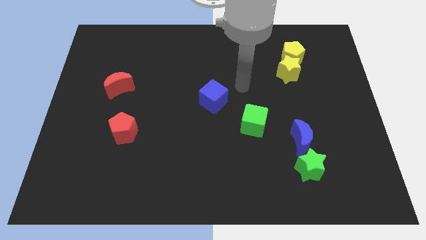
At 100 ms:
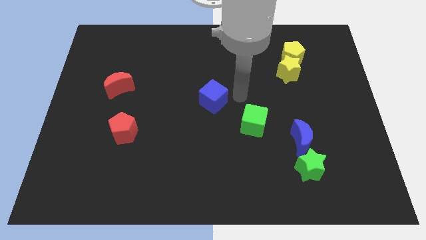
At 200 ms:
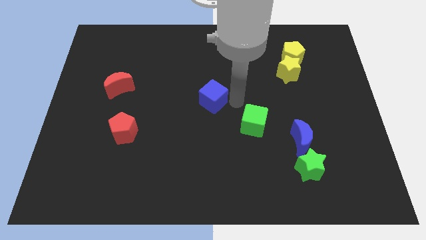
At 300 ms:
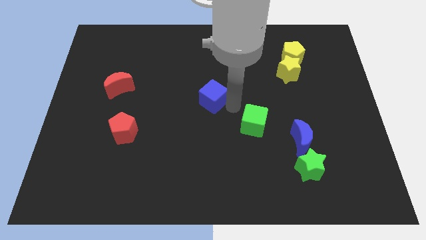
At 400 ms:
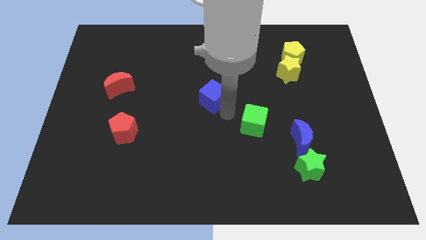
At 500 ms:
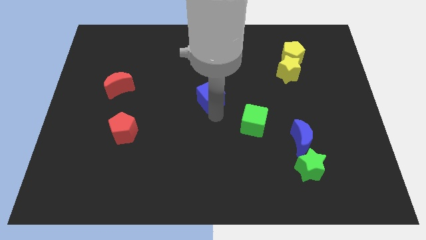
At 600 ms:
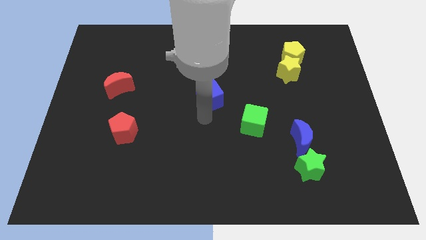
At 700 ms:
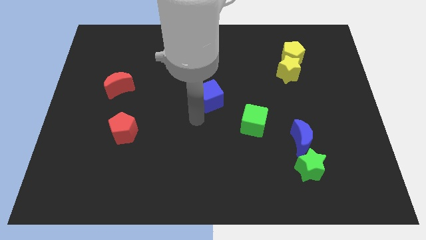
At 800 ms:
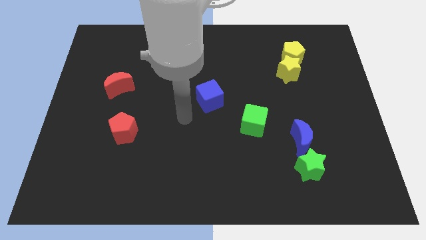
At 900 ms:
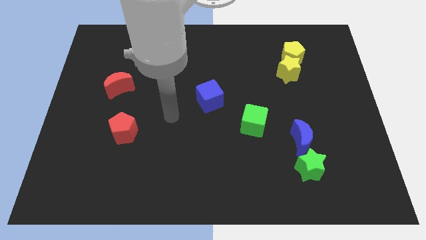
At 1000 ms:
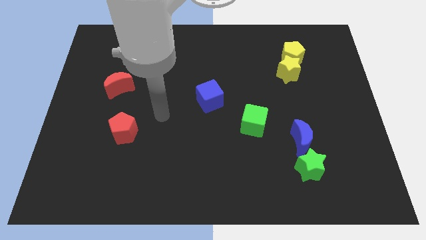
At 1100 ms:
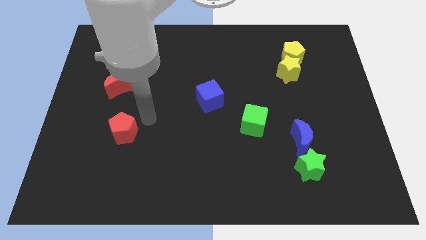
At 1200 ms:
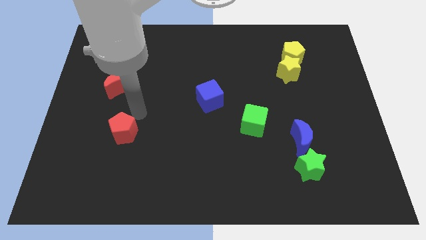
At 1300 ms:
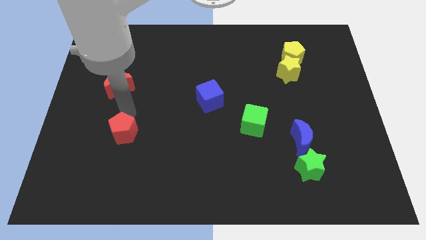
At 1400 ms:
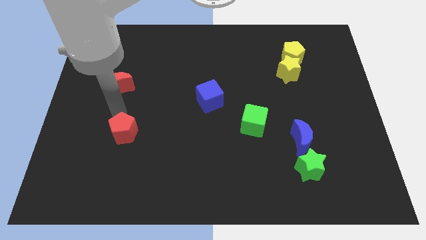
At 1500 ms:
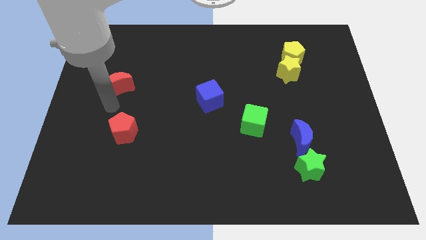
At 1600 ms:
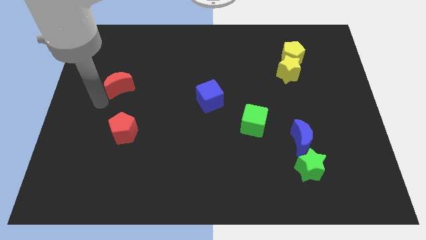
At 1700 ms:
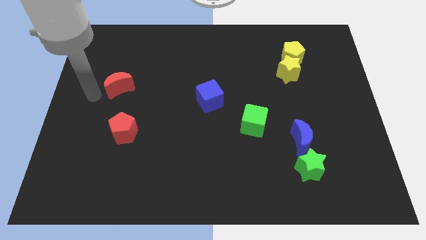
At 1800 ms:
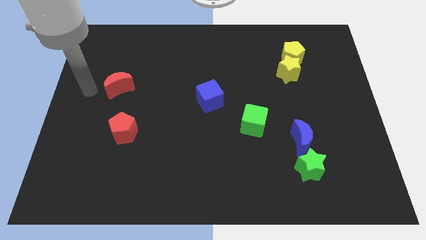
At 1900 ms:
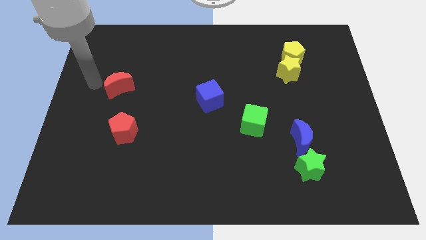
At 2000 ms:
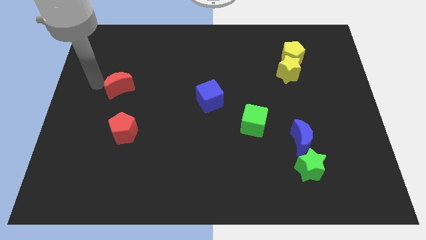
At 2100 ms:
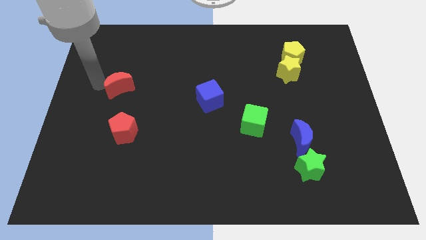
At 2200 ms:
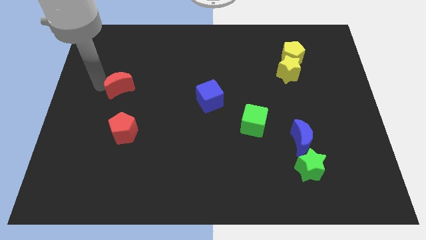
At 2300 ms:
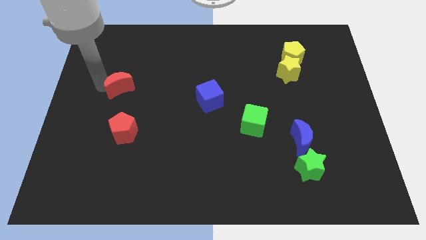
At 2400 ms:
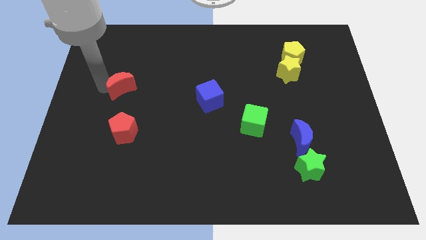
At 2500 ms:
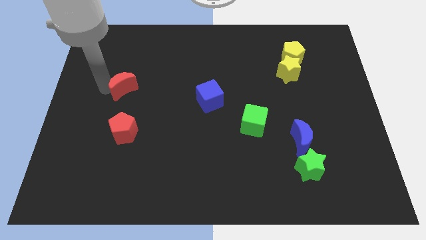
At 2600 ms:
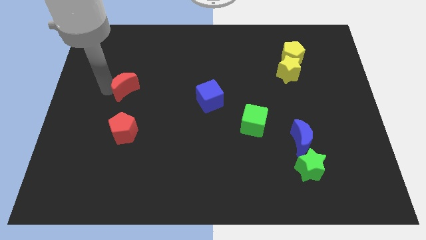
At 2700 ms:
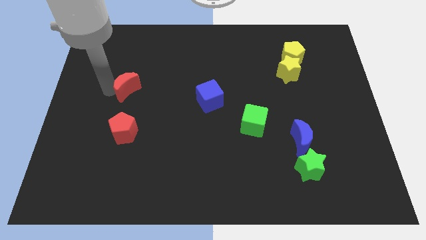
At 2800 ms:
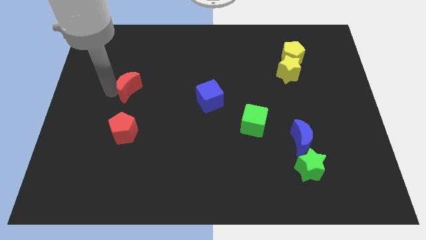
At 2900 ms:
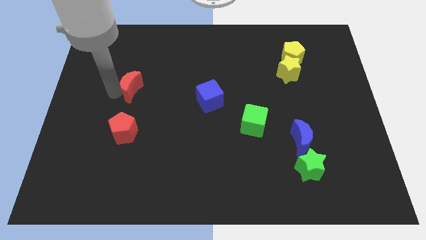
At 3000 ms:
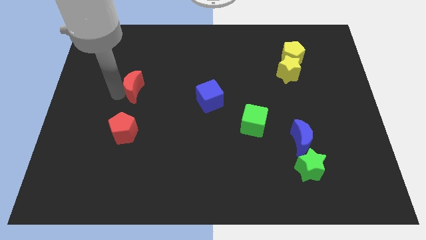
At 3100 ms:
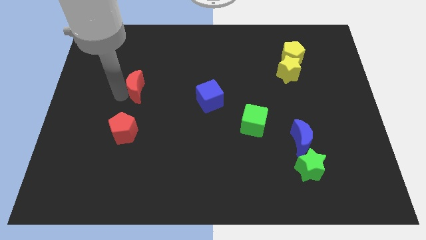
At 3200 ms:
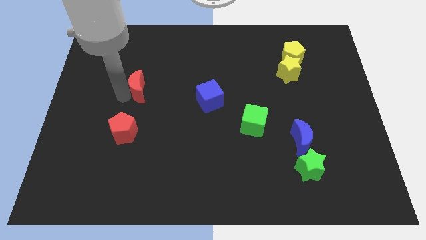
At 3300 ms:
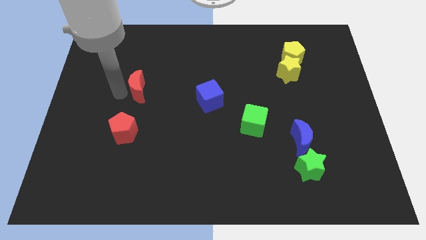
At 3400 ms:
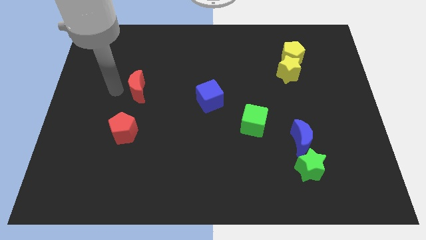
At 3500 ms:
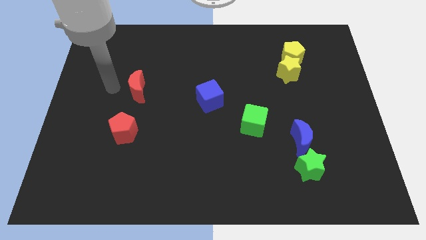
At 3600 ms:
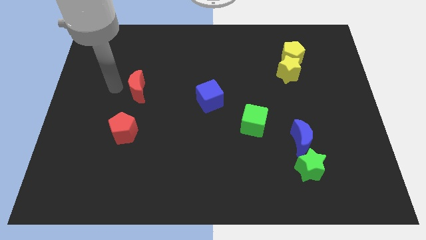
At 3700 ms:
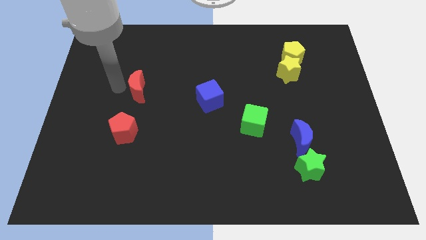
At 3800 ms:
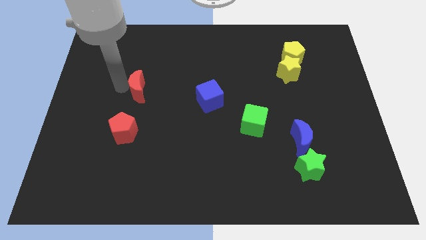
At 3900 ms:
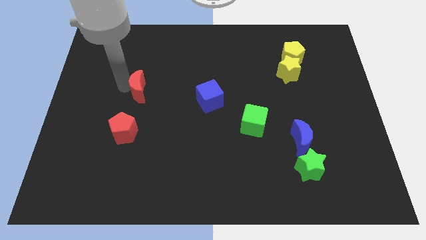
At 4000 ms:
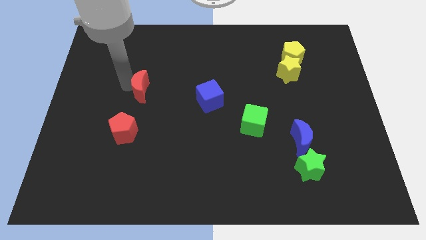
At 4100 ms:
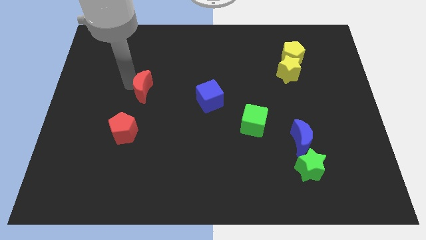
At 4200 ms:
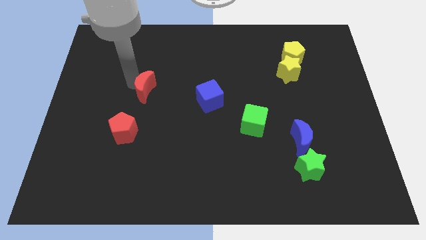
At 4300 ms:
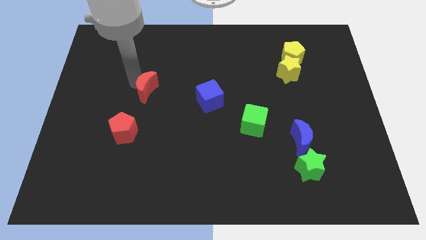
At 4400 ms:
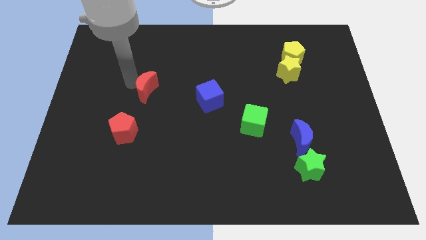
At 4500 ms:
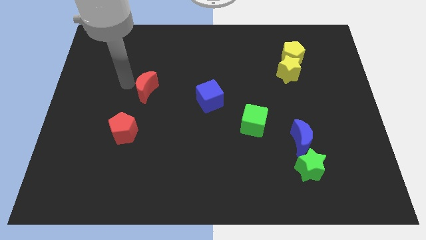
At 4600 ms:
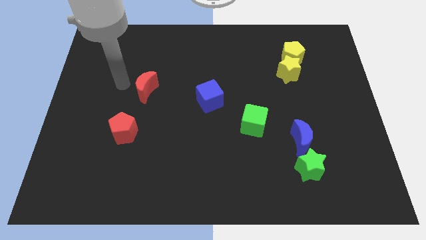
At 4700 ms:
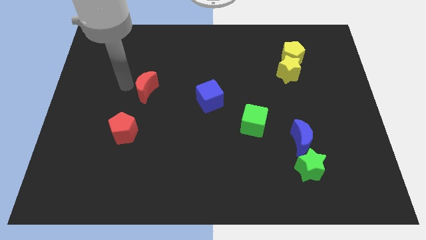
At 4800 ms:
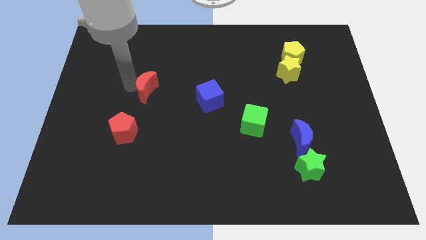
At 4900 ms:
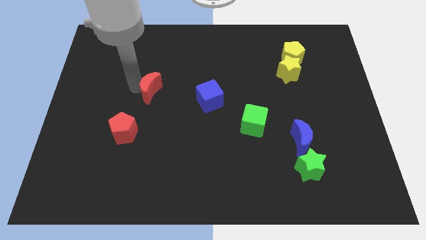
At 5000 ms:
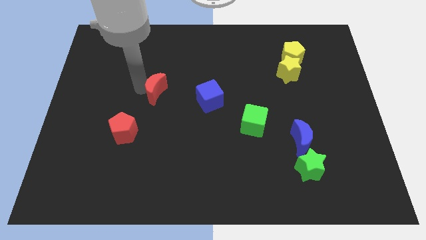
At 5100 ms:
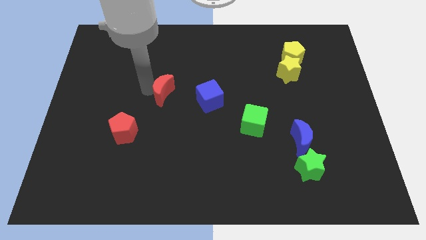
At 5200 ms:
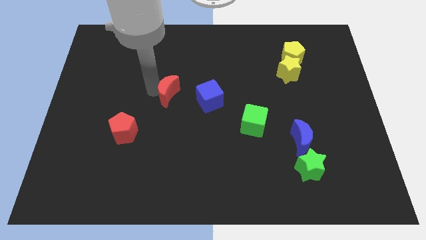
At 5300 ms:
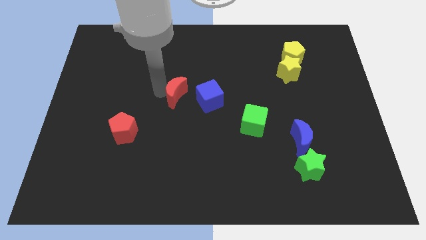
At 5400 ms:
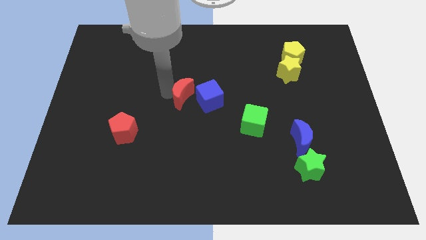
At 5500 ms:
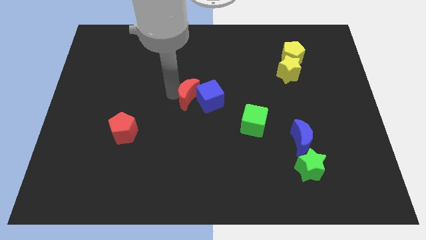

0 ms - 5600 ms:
put the red moon close to the blue cube

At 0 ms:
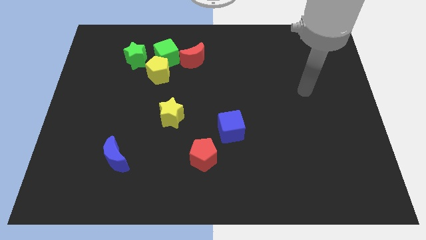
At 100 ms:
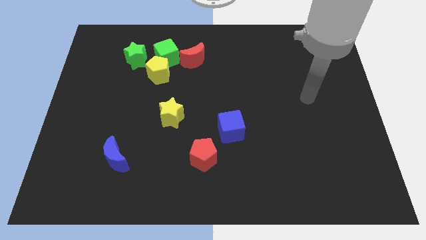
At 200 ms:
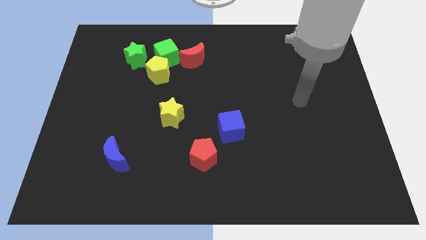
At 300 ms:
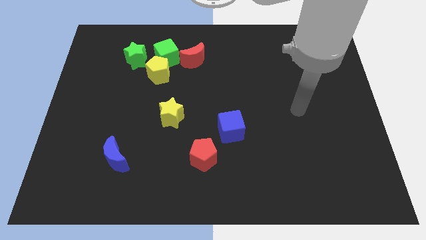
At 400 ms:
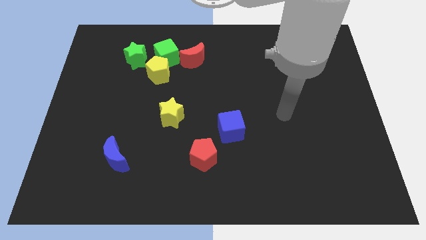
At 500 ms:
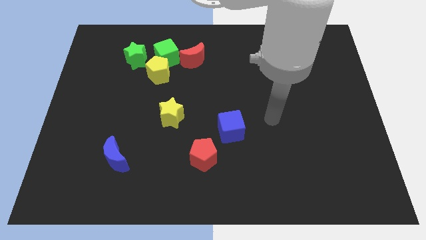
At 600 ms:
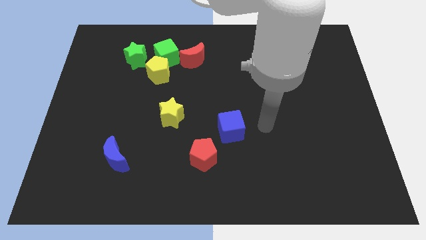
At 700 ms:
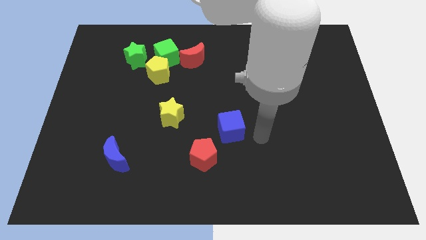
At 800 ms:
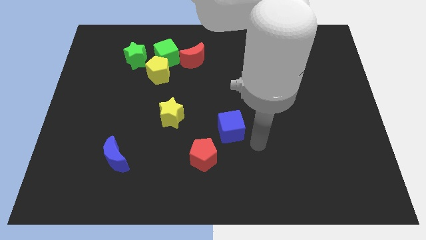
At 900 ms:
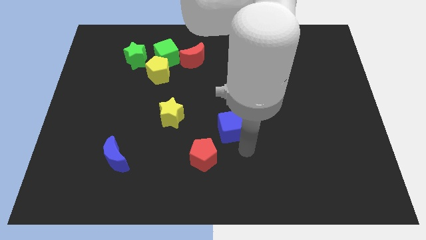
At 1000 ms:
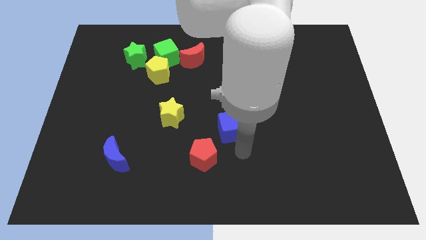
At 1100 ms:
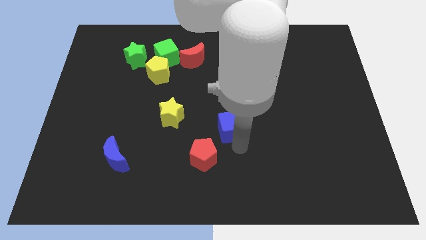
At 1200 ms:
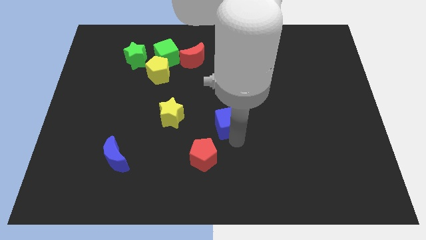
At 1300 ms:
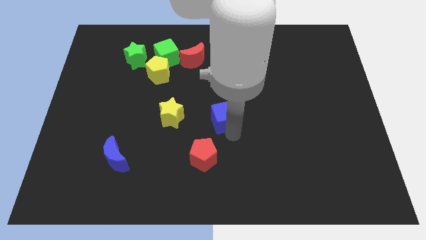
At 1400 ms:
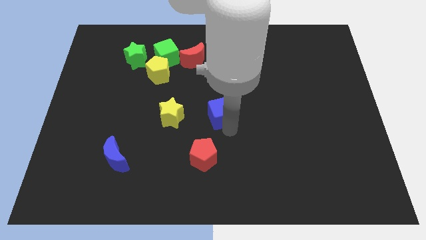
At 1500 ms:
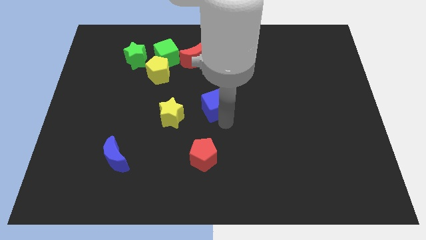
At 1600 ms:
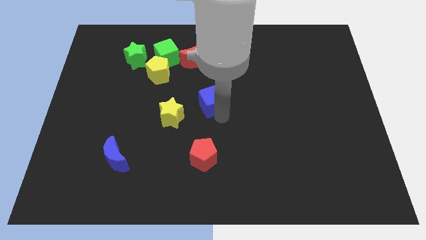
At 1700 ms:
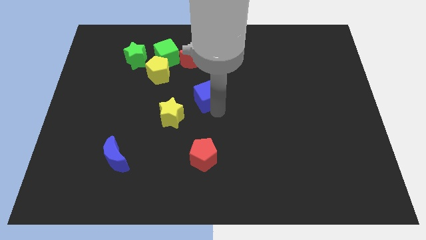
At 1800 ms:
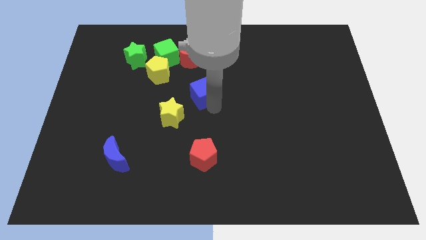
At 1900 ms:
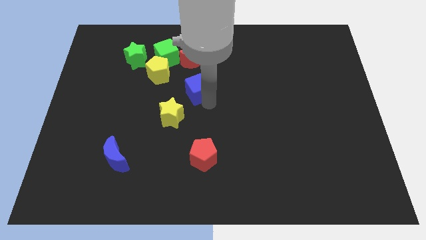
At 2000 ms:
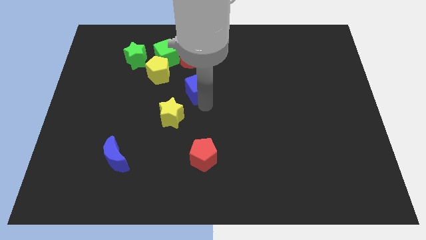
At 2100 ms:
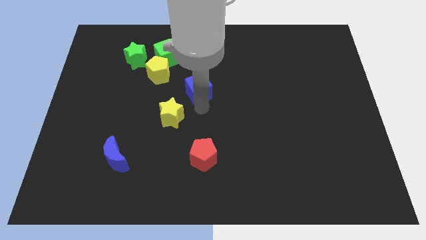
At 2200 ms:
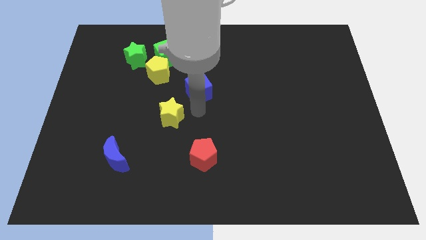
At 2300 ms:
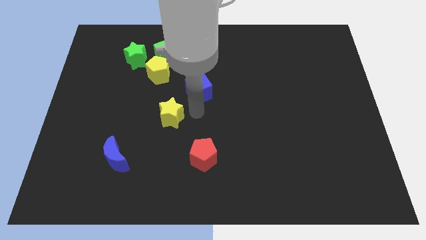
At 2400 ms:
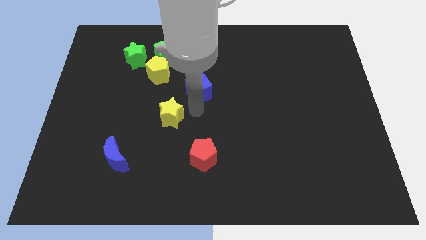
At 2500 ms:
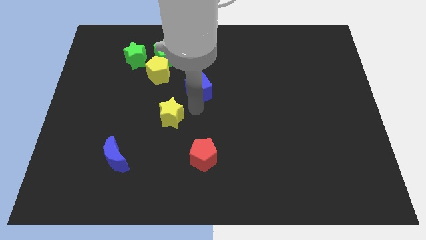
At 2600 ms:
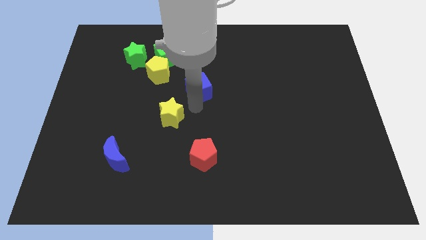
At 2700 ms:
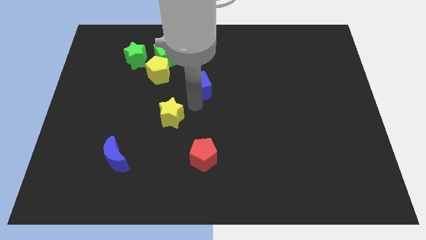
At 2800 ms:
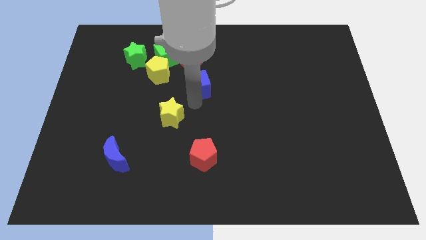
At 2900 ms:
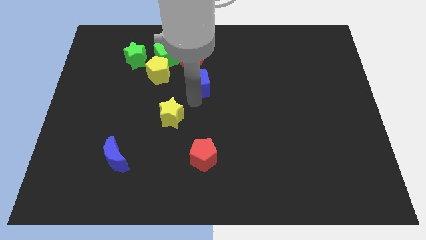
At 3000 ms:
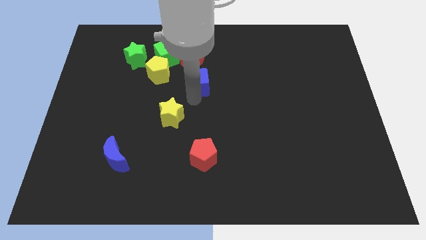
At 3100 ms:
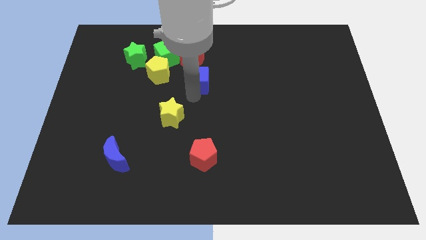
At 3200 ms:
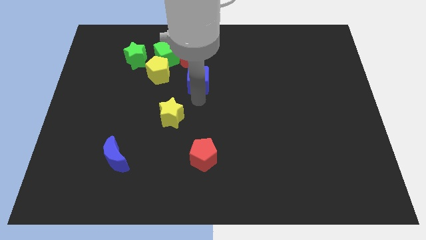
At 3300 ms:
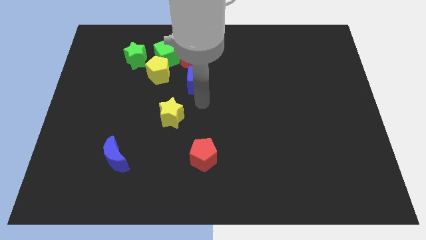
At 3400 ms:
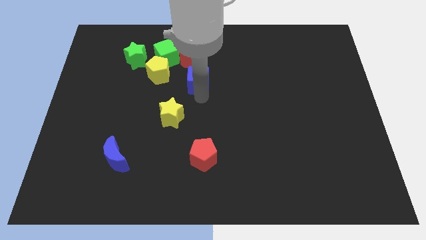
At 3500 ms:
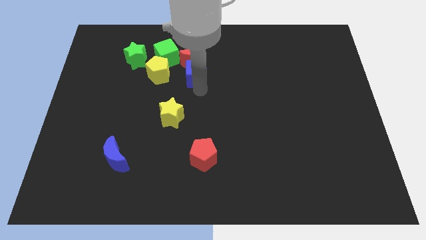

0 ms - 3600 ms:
move the blue cube to the red moon
